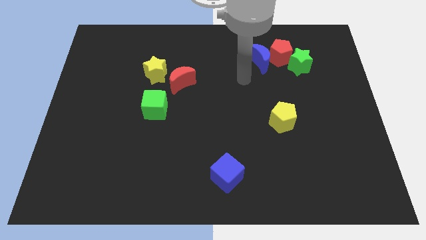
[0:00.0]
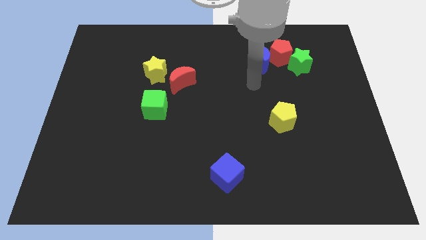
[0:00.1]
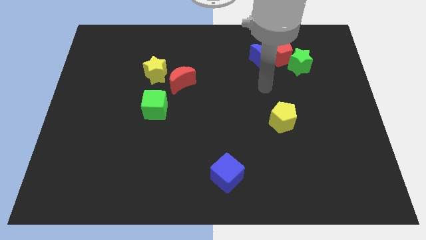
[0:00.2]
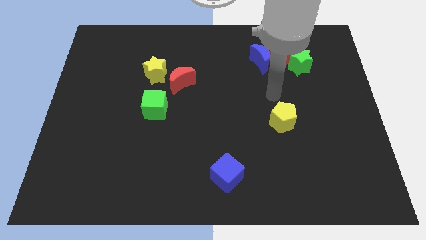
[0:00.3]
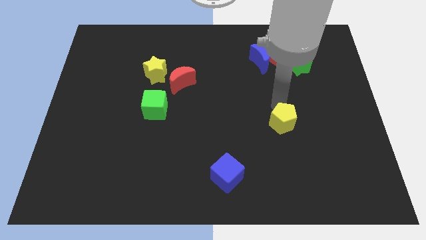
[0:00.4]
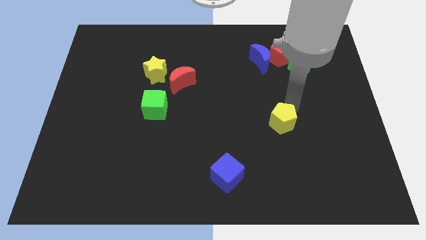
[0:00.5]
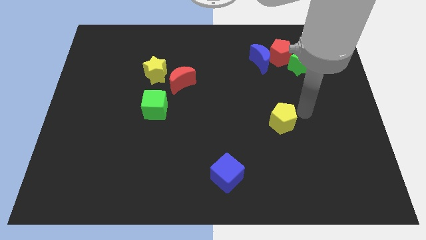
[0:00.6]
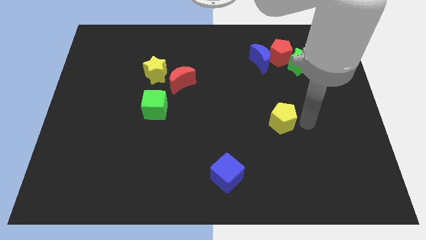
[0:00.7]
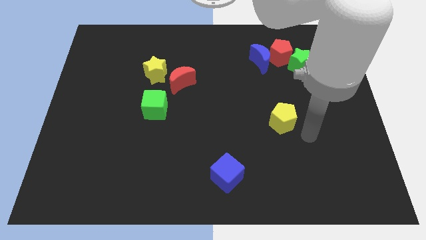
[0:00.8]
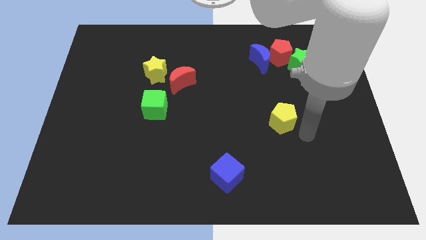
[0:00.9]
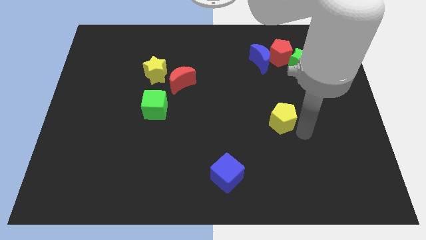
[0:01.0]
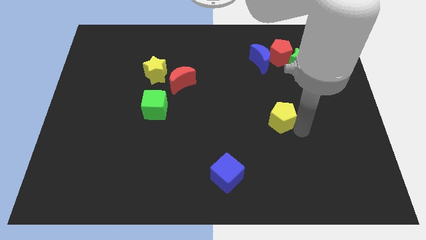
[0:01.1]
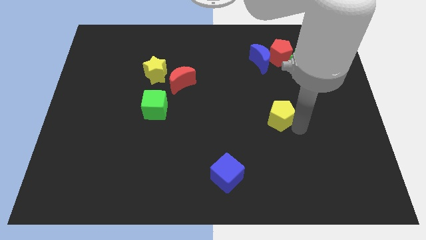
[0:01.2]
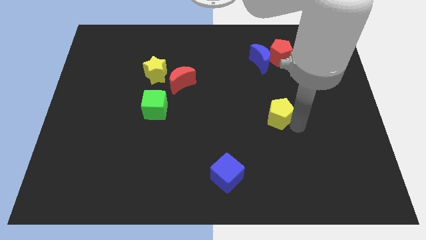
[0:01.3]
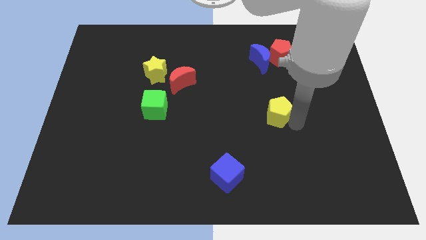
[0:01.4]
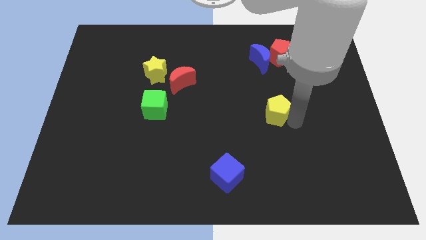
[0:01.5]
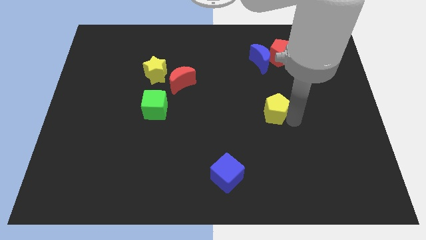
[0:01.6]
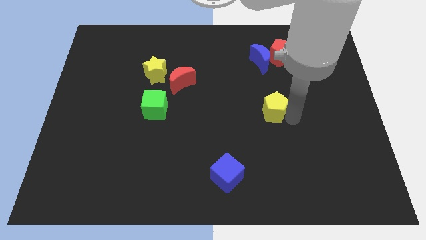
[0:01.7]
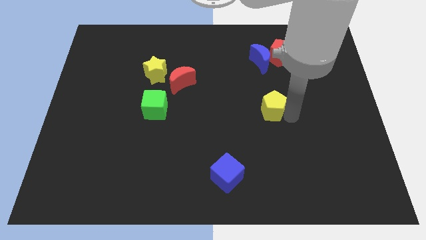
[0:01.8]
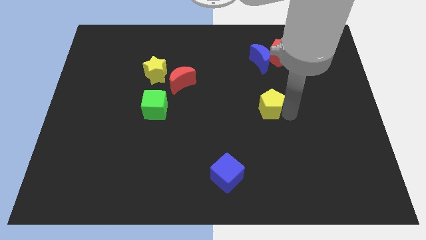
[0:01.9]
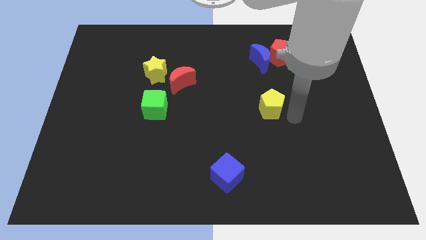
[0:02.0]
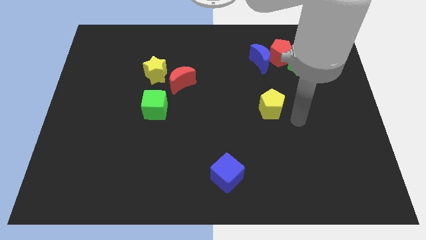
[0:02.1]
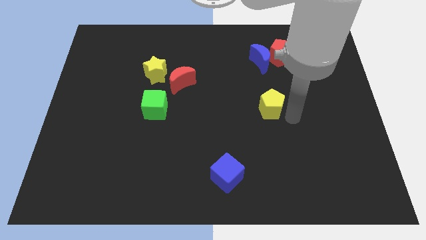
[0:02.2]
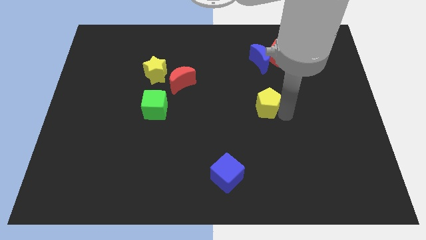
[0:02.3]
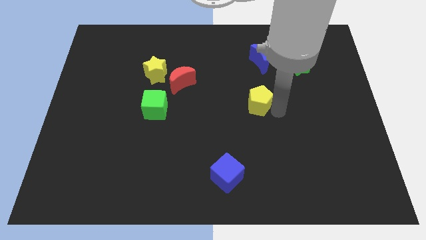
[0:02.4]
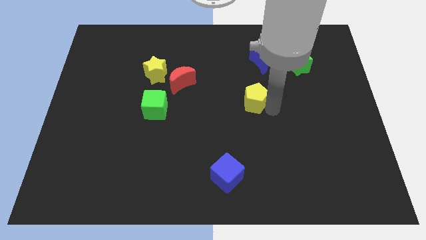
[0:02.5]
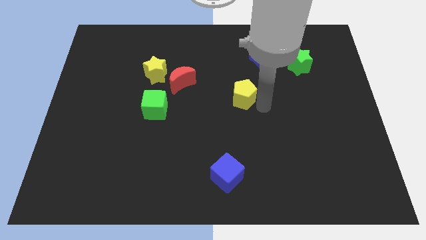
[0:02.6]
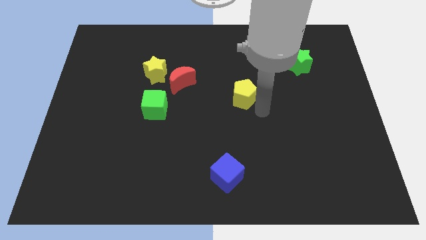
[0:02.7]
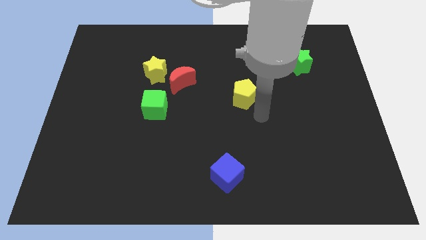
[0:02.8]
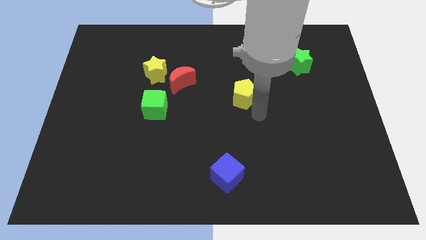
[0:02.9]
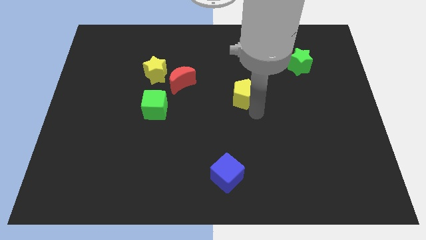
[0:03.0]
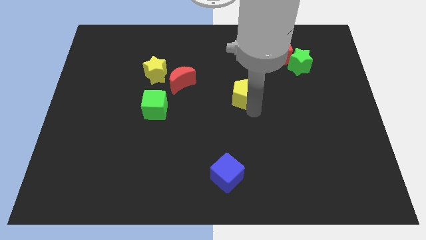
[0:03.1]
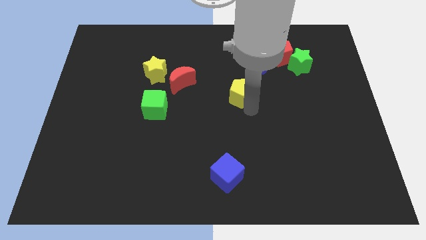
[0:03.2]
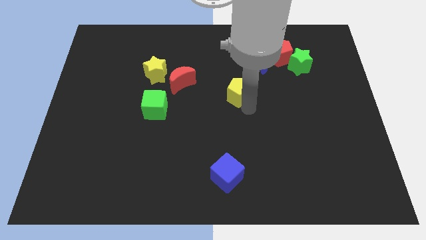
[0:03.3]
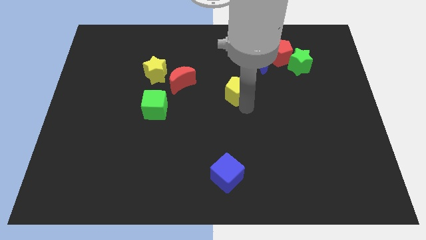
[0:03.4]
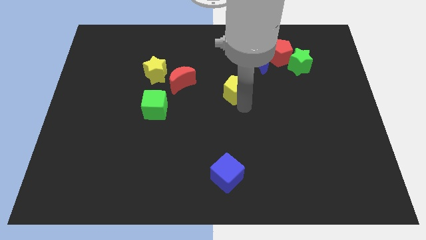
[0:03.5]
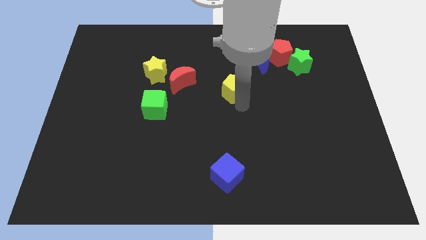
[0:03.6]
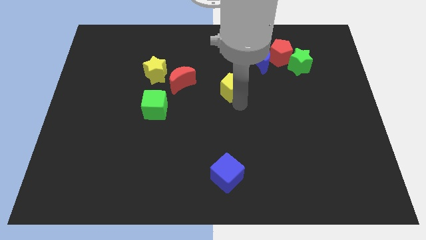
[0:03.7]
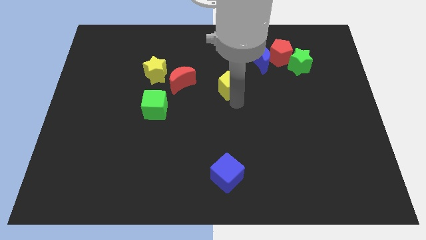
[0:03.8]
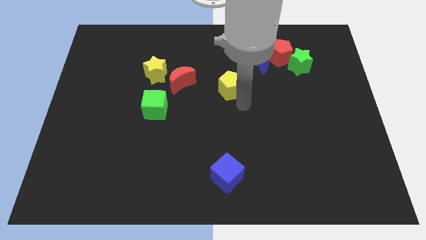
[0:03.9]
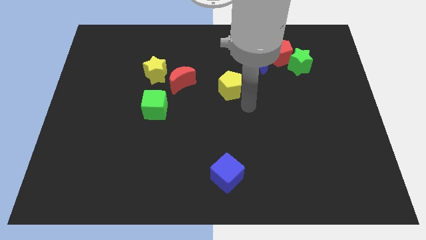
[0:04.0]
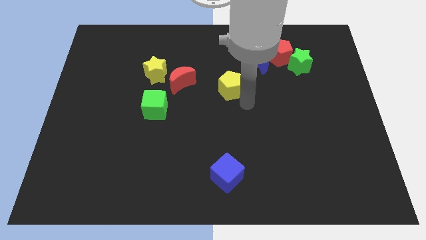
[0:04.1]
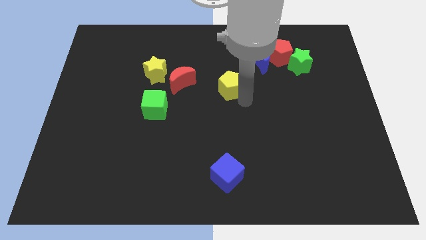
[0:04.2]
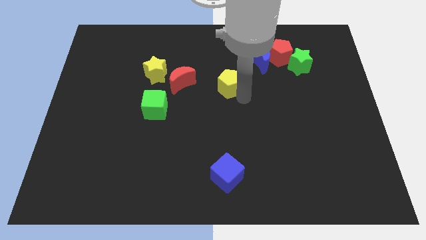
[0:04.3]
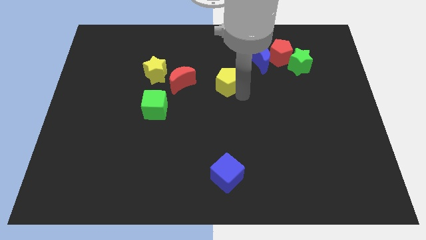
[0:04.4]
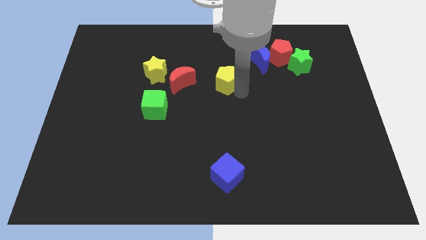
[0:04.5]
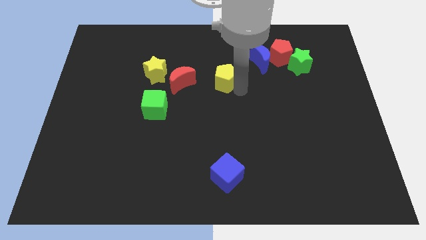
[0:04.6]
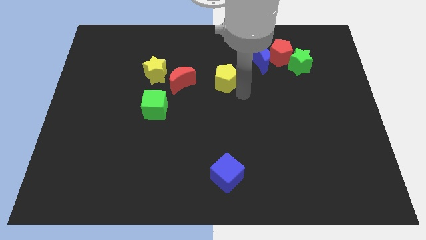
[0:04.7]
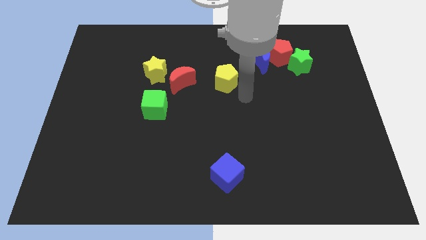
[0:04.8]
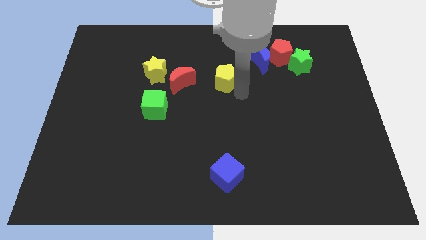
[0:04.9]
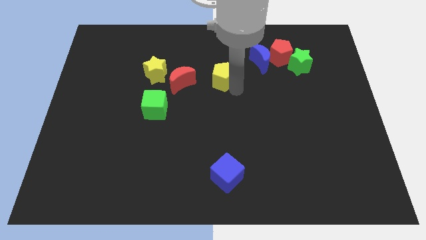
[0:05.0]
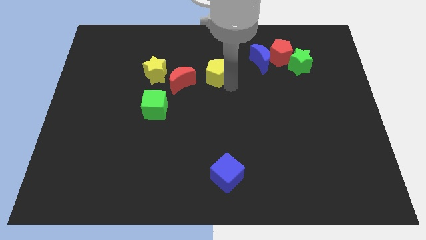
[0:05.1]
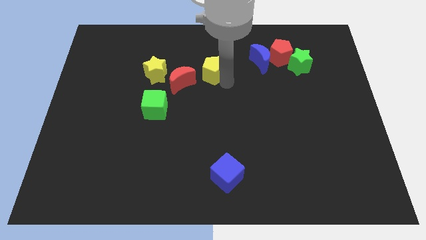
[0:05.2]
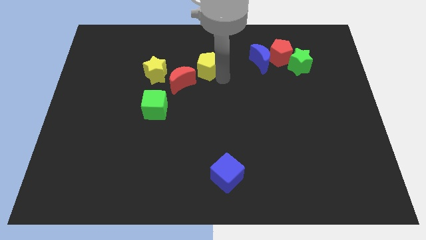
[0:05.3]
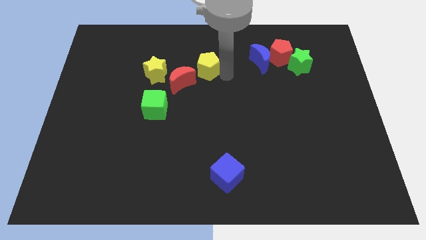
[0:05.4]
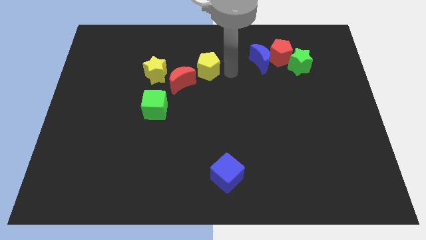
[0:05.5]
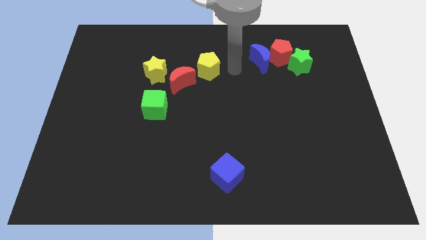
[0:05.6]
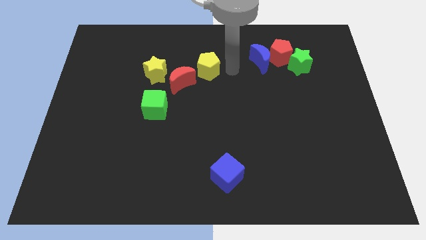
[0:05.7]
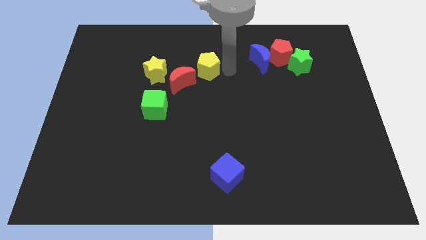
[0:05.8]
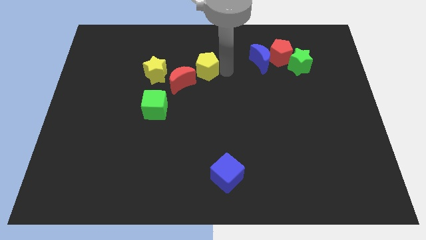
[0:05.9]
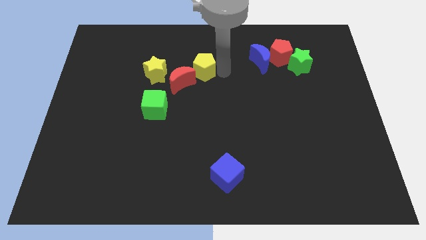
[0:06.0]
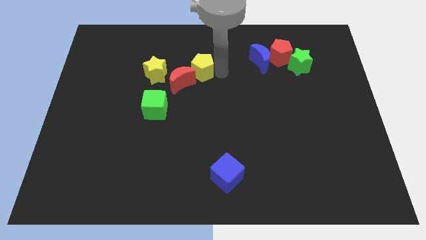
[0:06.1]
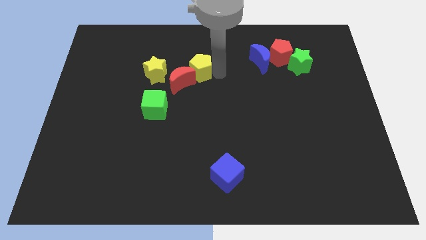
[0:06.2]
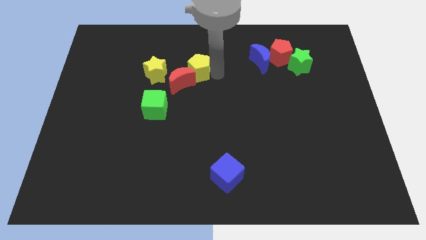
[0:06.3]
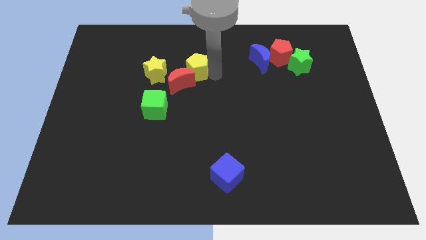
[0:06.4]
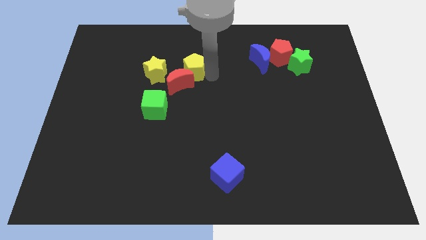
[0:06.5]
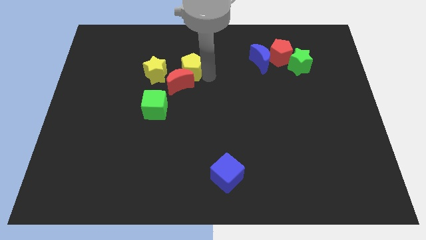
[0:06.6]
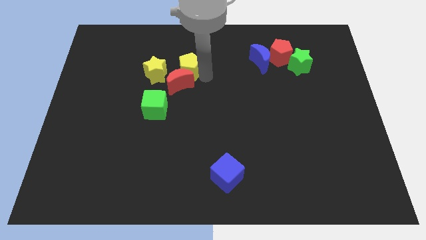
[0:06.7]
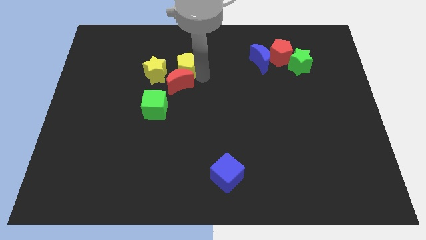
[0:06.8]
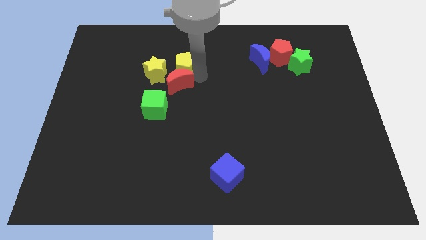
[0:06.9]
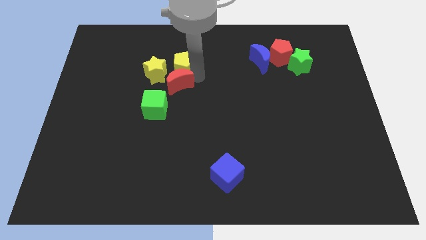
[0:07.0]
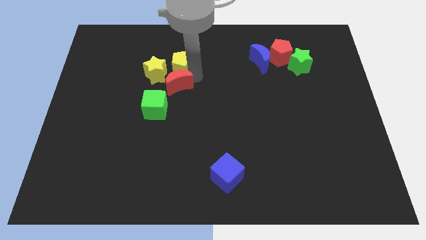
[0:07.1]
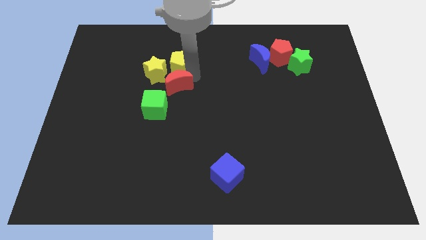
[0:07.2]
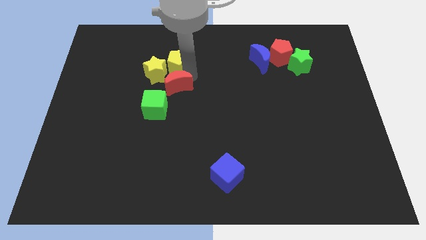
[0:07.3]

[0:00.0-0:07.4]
slide the yellow pentagon to the top of the green cube

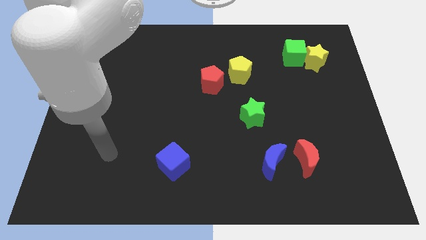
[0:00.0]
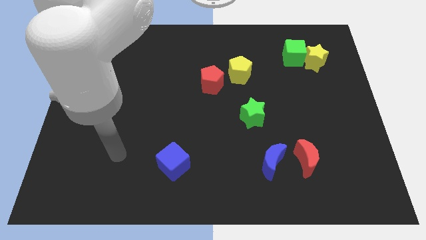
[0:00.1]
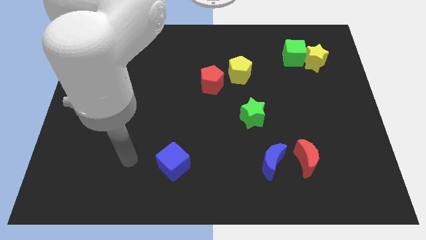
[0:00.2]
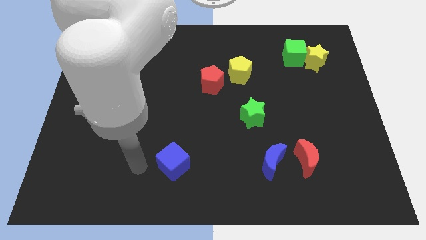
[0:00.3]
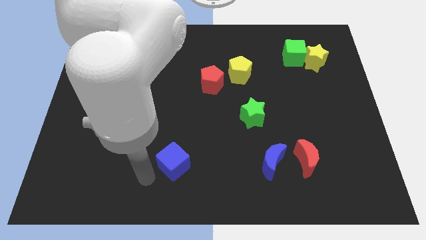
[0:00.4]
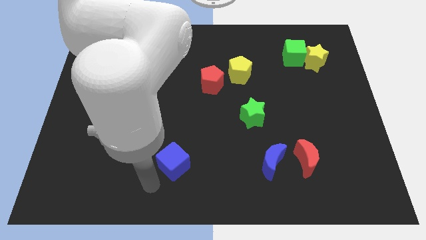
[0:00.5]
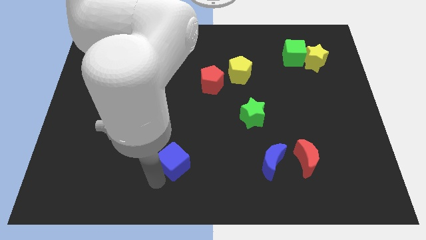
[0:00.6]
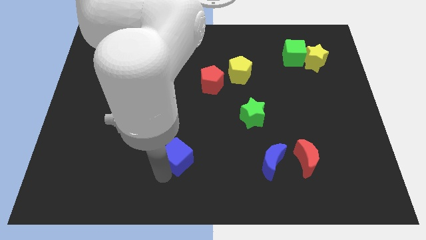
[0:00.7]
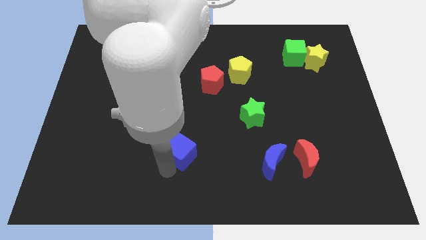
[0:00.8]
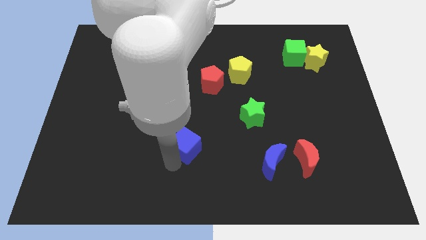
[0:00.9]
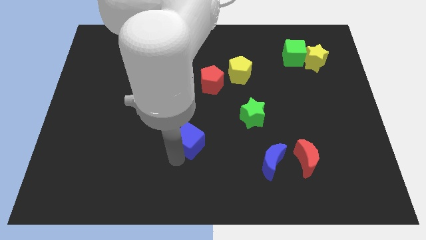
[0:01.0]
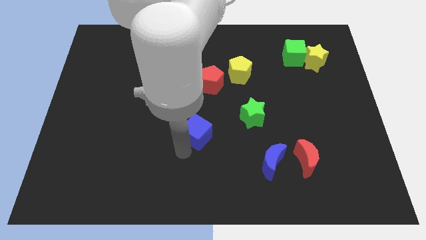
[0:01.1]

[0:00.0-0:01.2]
push the blue cube to the bottom of the red pentagon
